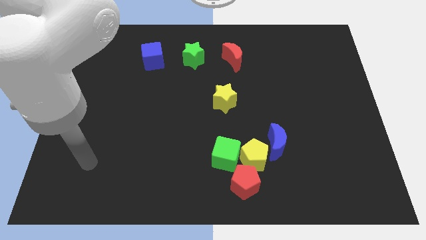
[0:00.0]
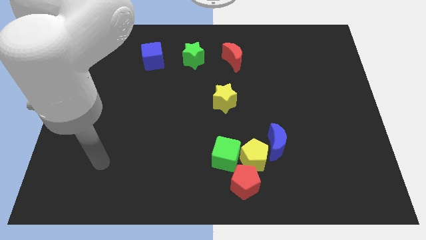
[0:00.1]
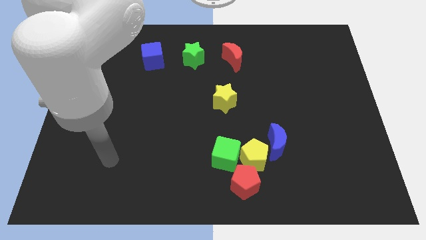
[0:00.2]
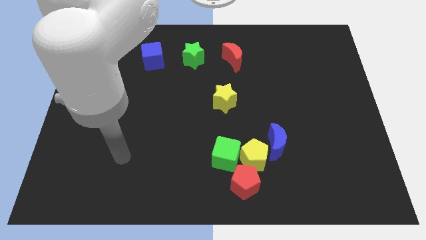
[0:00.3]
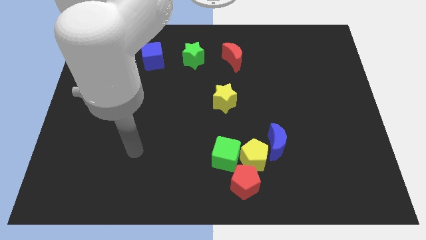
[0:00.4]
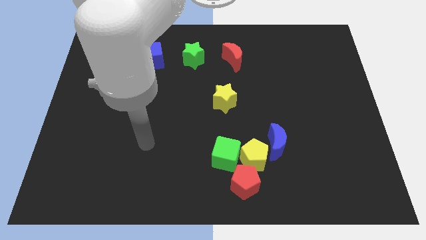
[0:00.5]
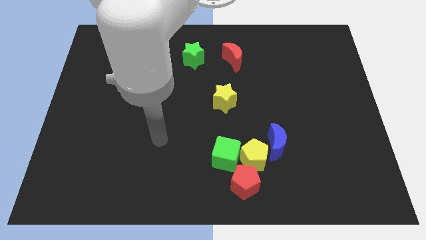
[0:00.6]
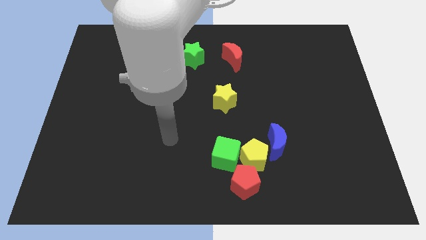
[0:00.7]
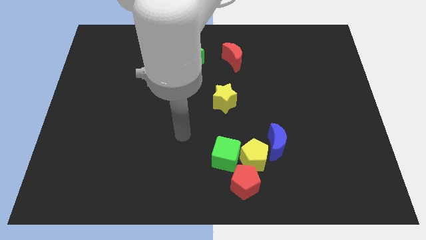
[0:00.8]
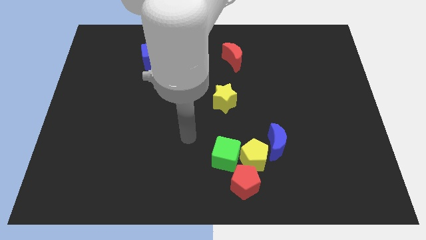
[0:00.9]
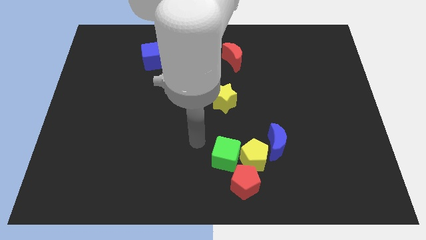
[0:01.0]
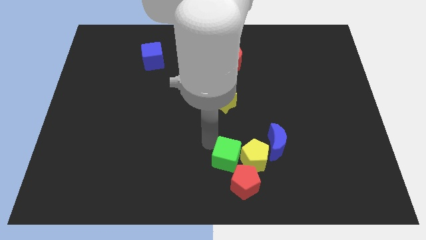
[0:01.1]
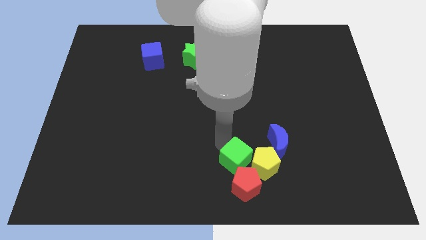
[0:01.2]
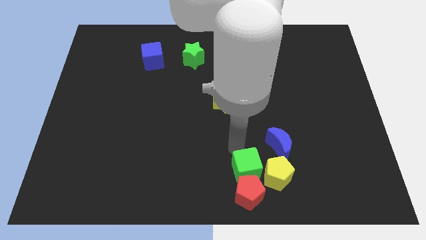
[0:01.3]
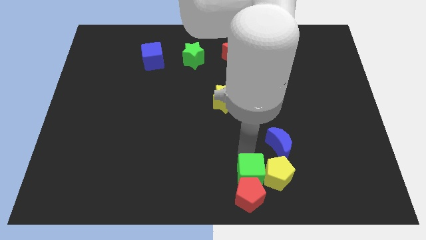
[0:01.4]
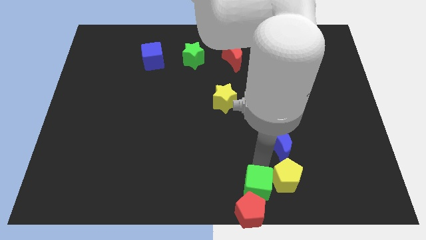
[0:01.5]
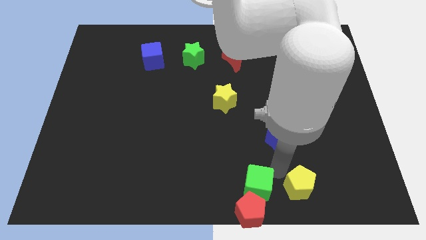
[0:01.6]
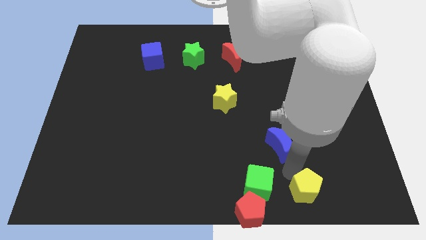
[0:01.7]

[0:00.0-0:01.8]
separate the blue moon from the yellow pentagon

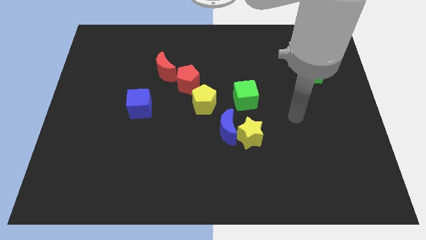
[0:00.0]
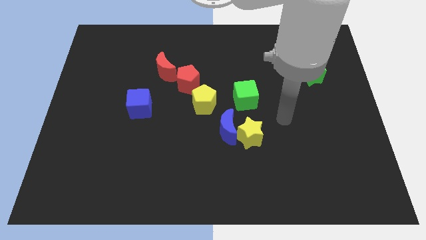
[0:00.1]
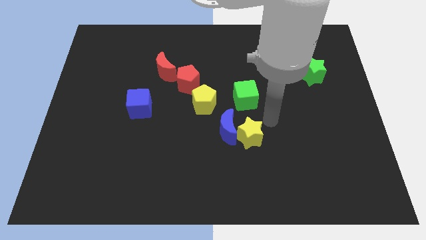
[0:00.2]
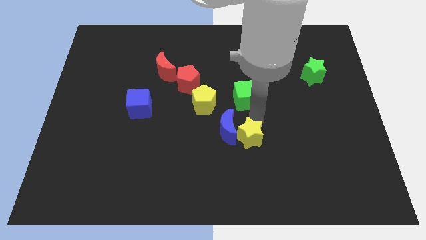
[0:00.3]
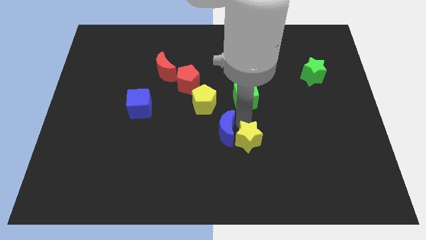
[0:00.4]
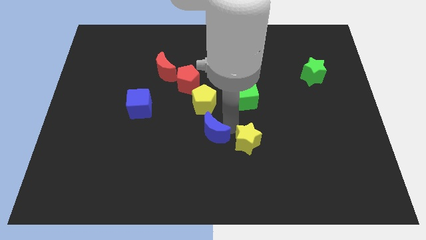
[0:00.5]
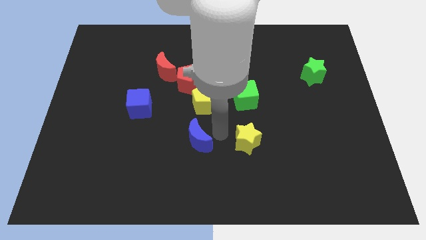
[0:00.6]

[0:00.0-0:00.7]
separate the yellow star from the blue moon

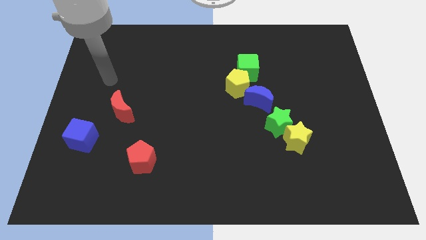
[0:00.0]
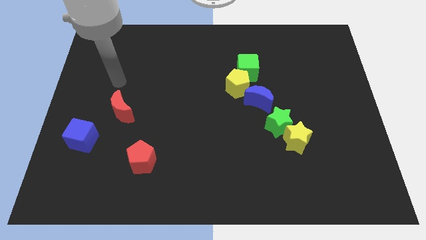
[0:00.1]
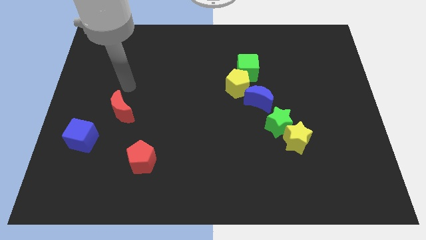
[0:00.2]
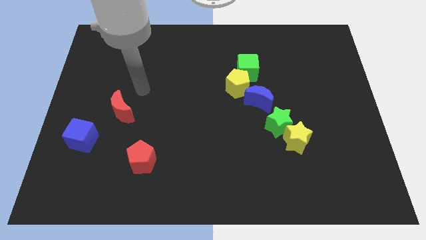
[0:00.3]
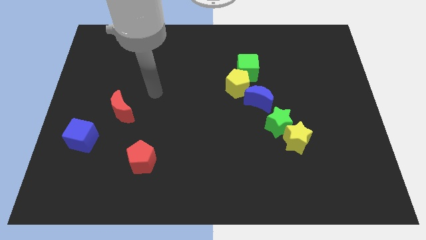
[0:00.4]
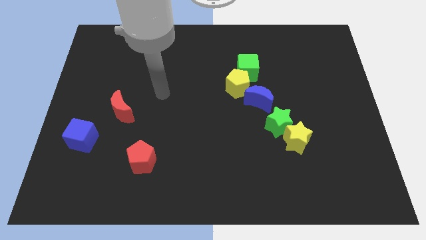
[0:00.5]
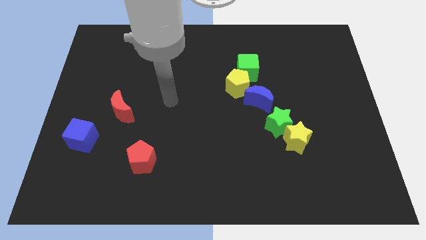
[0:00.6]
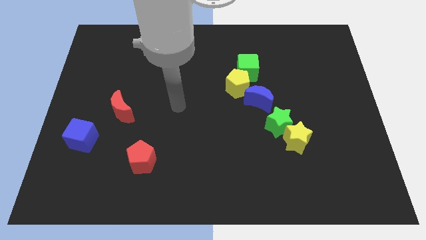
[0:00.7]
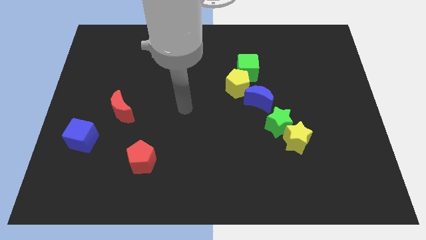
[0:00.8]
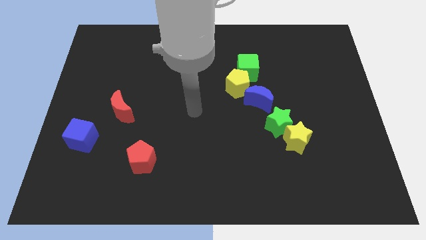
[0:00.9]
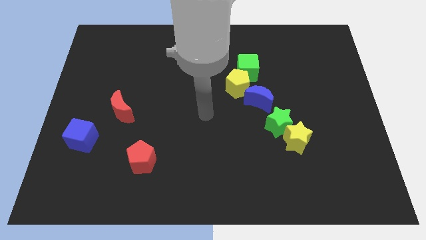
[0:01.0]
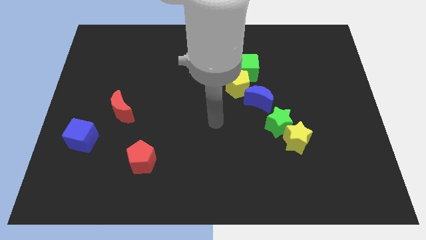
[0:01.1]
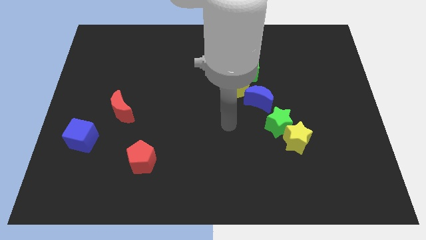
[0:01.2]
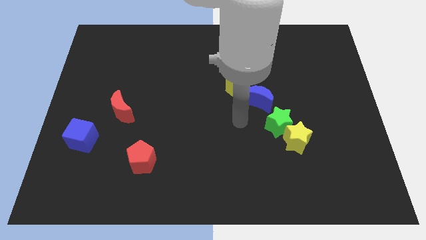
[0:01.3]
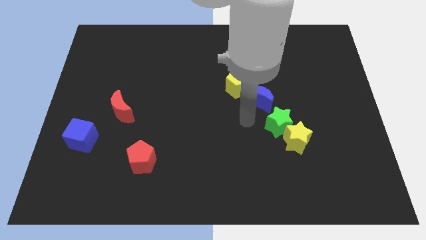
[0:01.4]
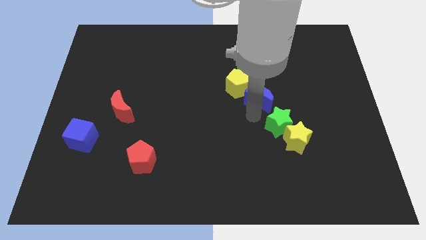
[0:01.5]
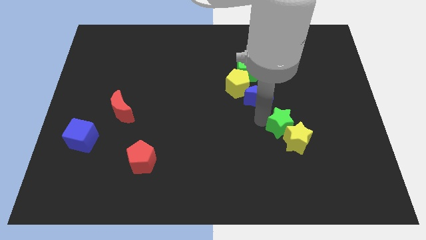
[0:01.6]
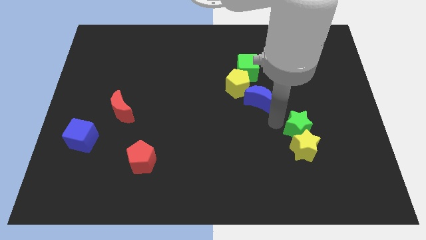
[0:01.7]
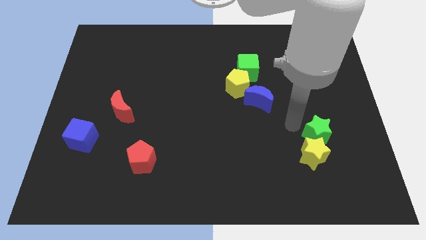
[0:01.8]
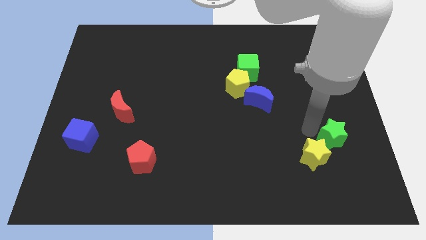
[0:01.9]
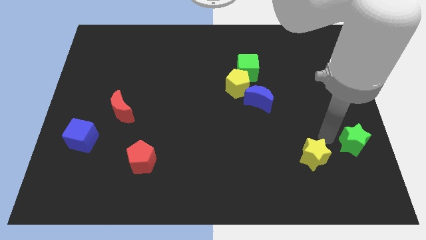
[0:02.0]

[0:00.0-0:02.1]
move the yellow star away from the green star

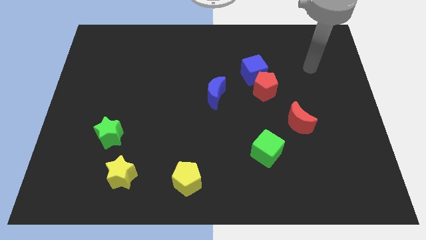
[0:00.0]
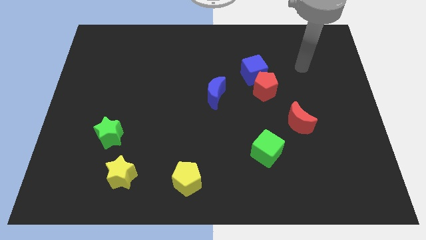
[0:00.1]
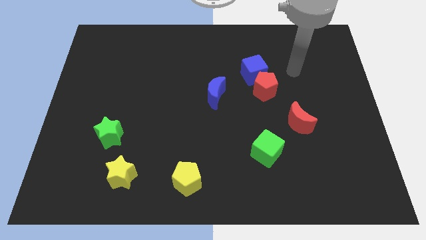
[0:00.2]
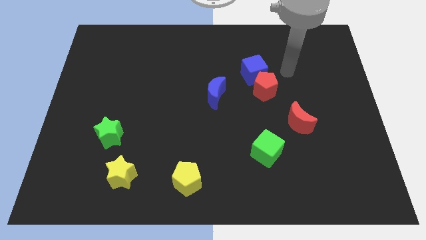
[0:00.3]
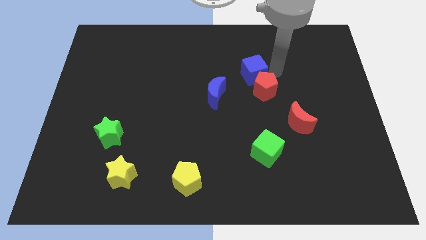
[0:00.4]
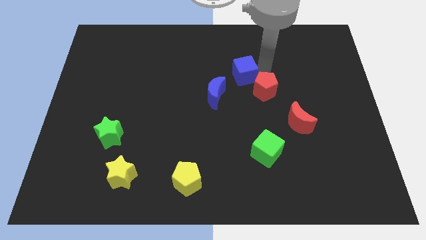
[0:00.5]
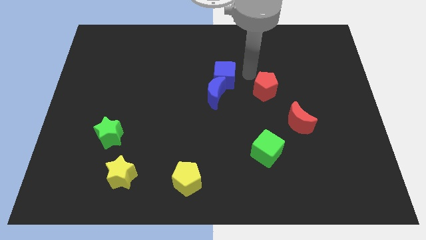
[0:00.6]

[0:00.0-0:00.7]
move the red pentagon away from the blue cube

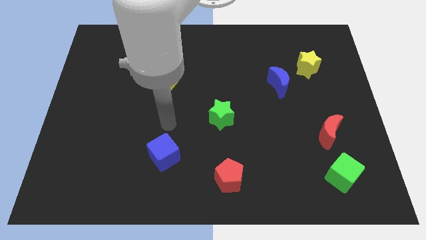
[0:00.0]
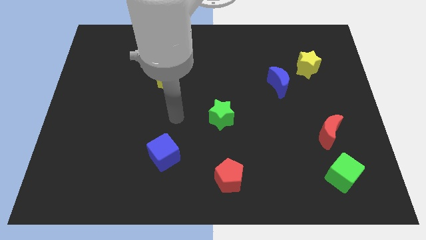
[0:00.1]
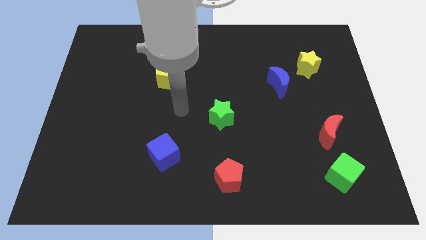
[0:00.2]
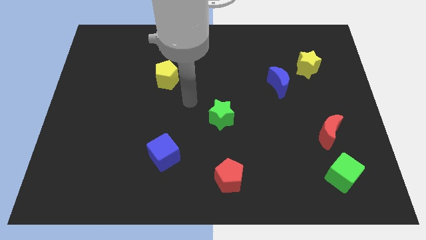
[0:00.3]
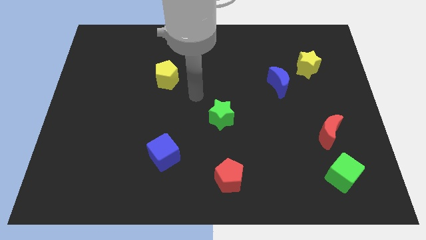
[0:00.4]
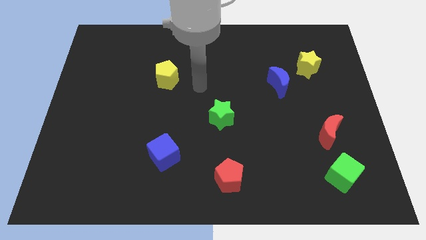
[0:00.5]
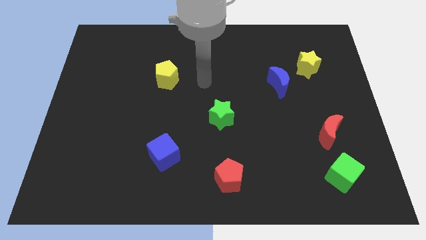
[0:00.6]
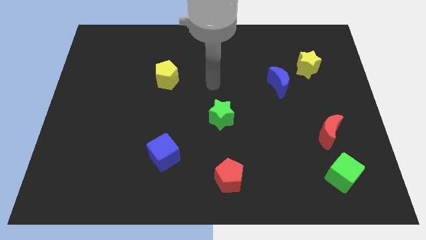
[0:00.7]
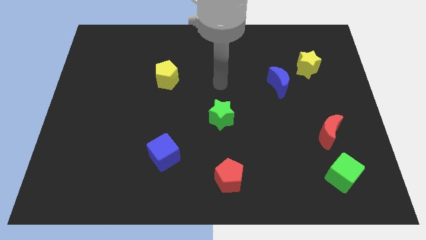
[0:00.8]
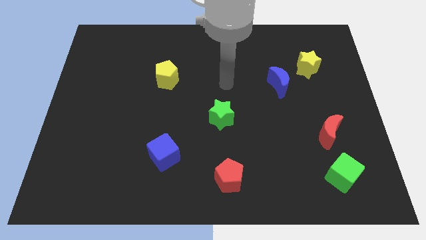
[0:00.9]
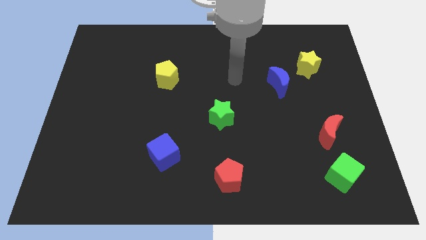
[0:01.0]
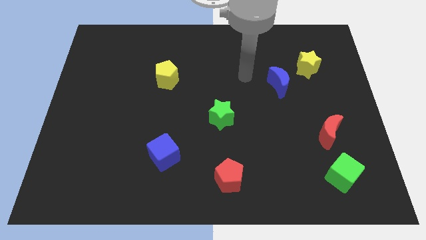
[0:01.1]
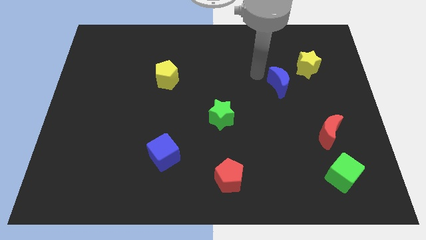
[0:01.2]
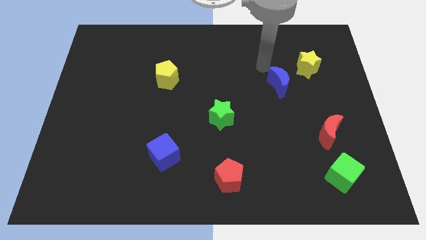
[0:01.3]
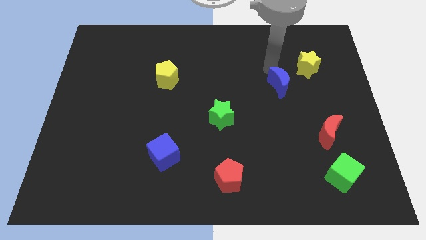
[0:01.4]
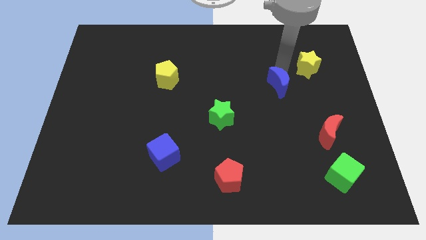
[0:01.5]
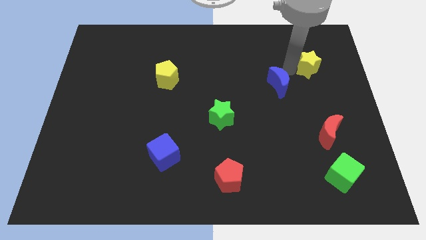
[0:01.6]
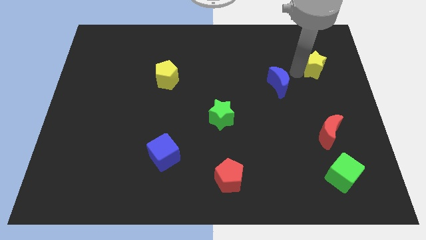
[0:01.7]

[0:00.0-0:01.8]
move the blue moon away from the yellow star

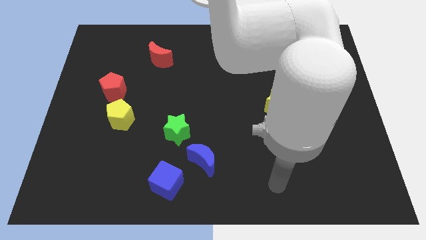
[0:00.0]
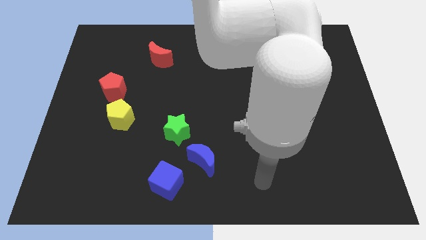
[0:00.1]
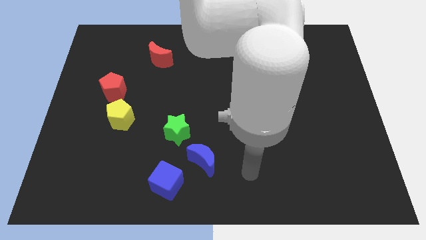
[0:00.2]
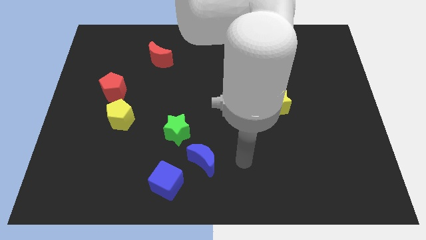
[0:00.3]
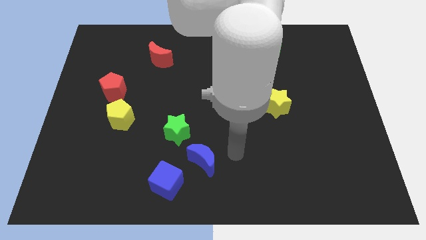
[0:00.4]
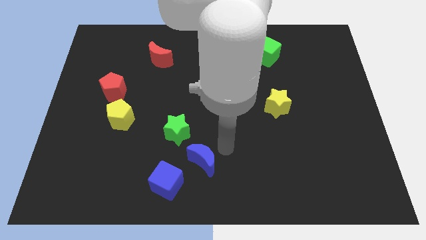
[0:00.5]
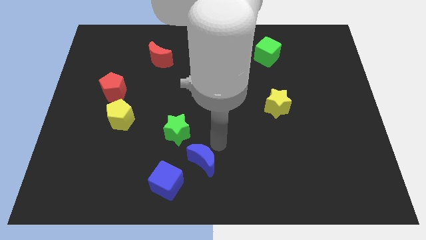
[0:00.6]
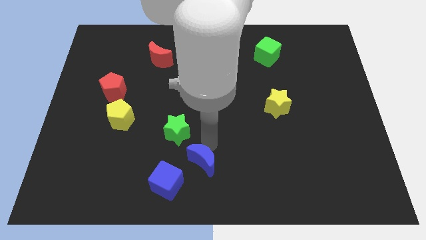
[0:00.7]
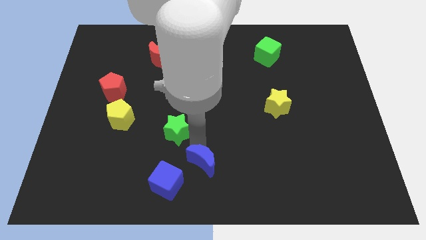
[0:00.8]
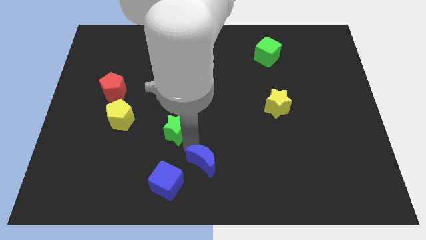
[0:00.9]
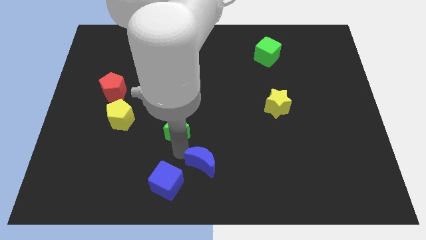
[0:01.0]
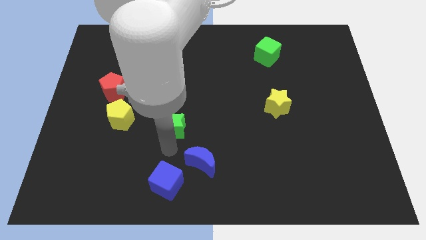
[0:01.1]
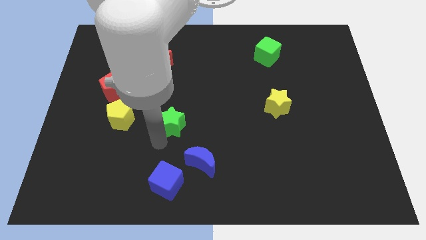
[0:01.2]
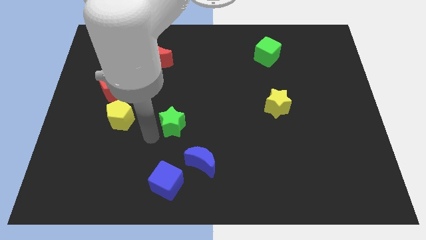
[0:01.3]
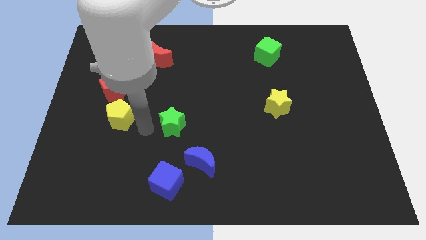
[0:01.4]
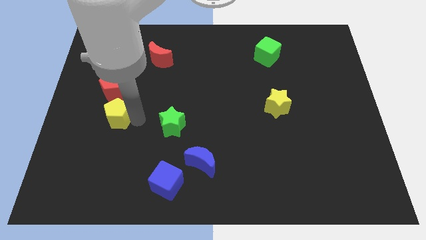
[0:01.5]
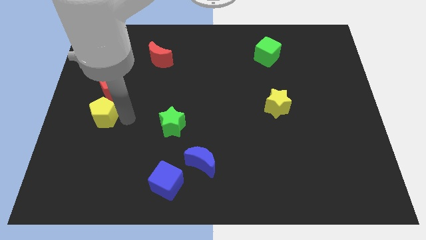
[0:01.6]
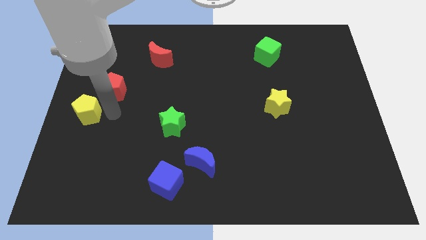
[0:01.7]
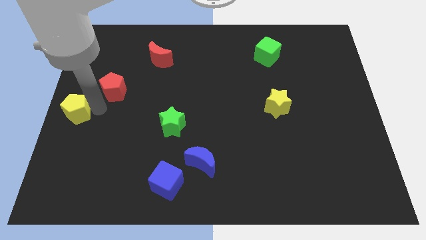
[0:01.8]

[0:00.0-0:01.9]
separate the red pentagon from the yellow pentagon

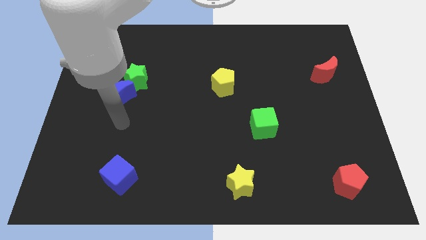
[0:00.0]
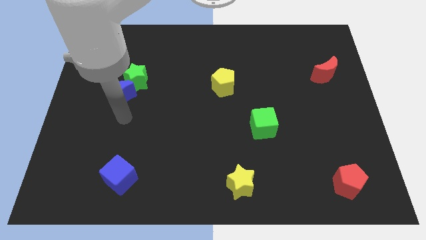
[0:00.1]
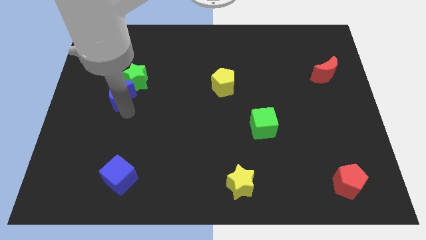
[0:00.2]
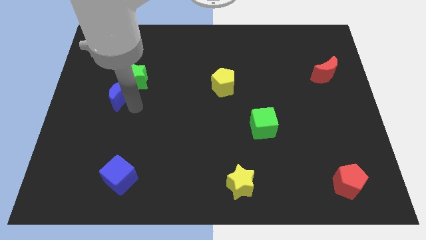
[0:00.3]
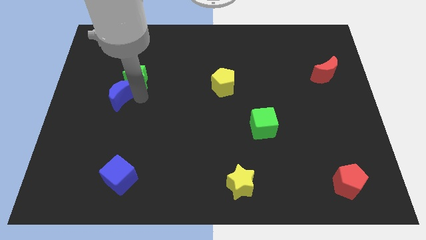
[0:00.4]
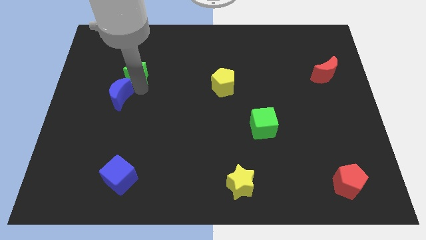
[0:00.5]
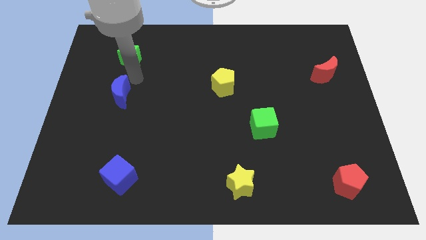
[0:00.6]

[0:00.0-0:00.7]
separate the blue moon from the green star
